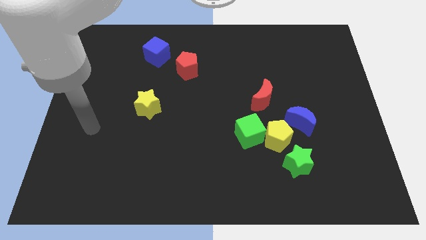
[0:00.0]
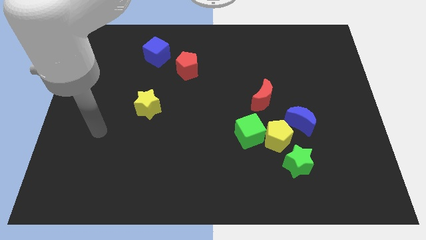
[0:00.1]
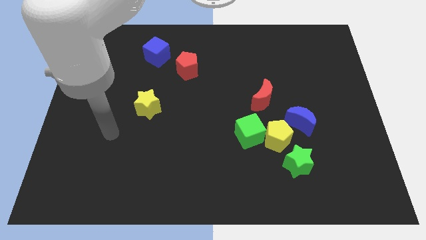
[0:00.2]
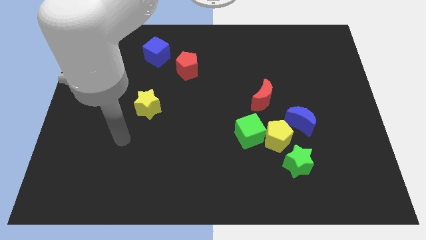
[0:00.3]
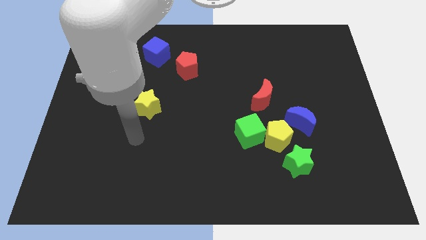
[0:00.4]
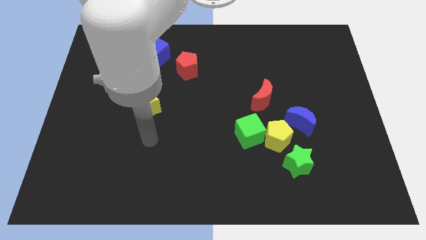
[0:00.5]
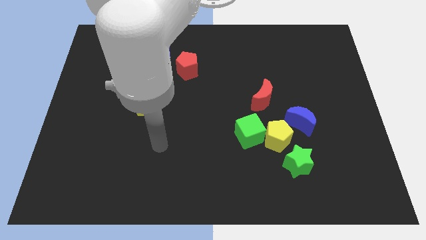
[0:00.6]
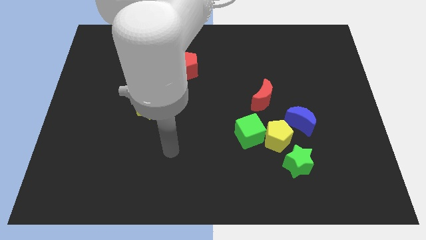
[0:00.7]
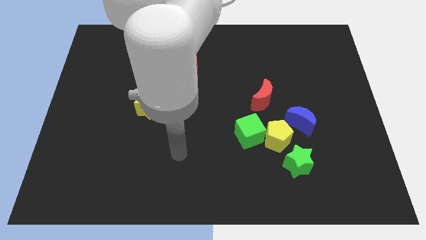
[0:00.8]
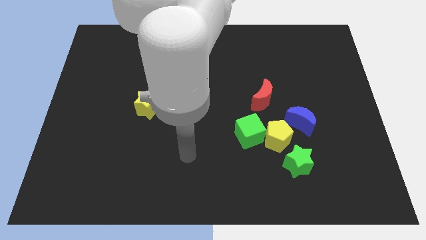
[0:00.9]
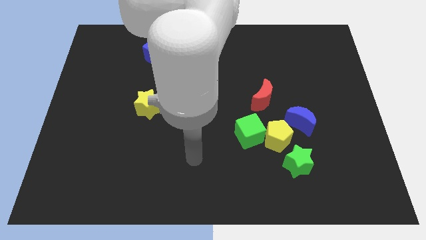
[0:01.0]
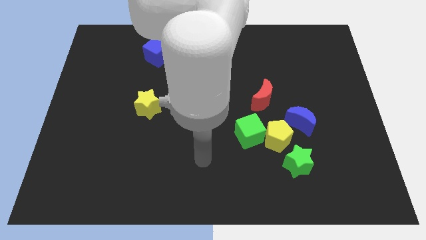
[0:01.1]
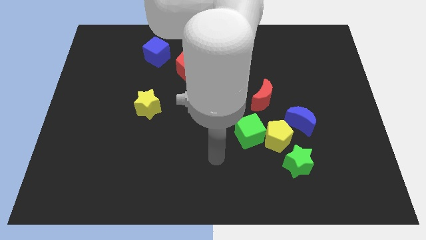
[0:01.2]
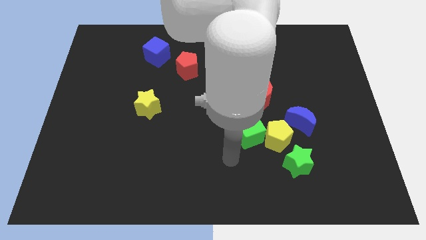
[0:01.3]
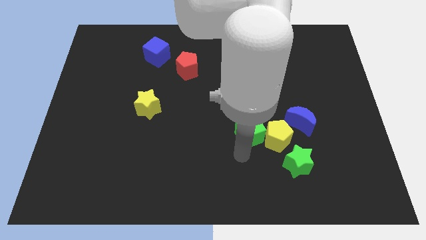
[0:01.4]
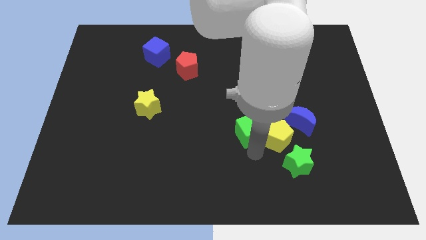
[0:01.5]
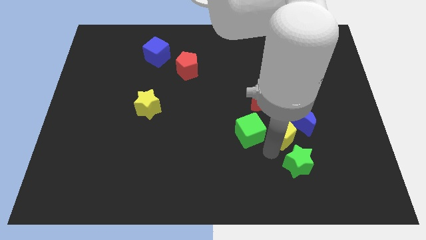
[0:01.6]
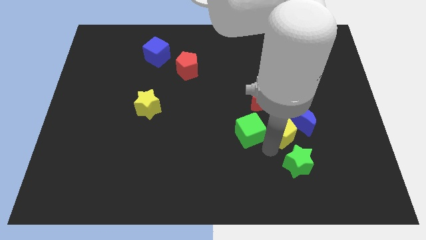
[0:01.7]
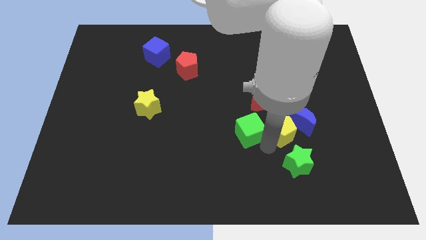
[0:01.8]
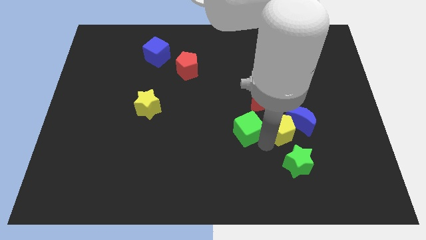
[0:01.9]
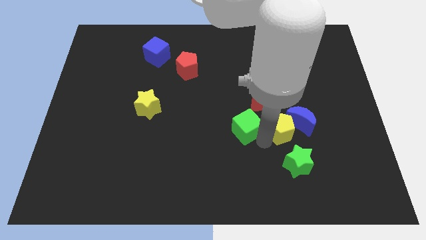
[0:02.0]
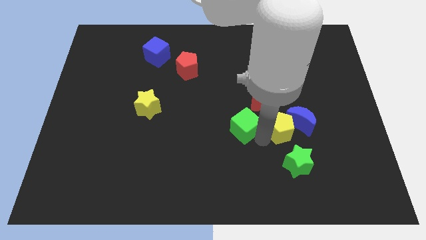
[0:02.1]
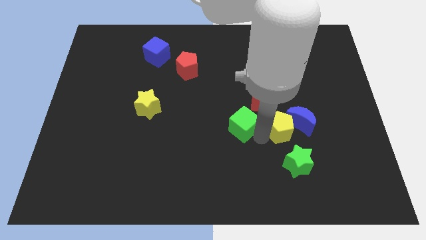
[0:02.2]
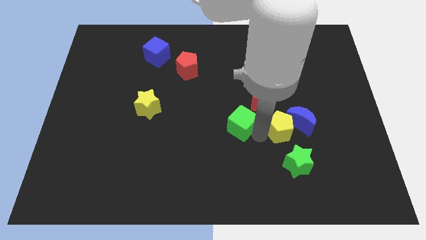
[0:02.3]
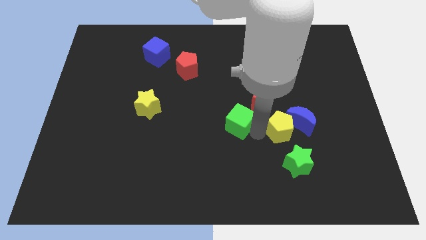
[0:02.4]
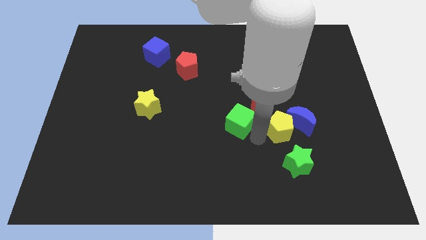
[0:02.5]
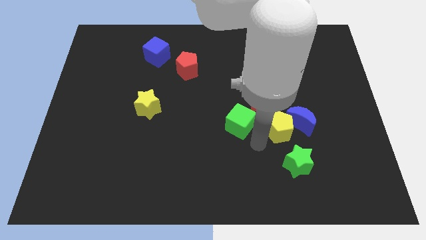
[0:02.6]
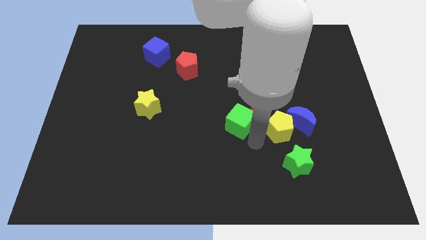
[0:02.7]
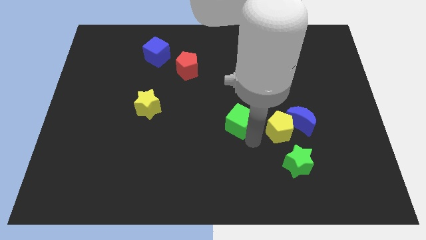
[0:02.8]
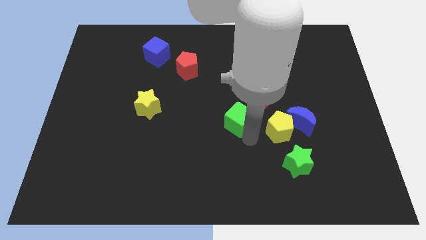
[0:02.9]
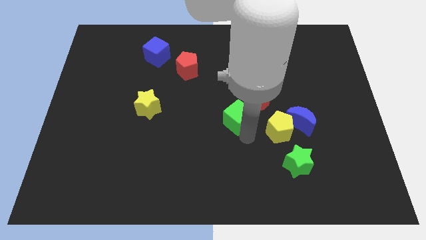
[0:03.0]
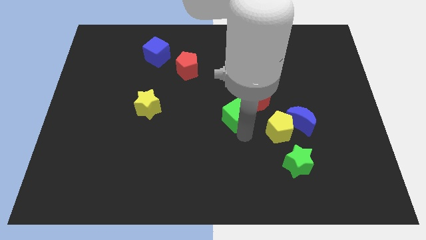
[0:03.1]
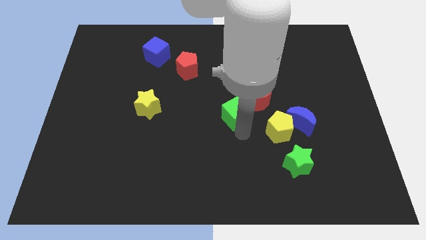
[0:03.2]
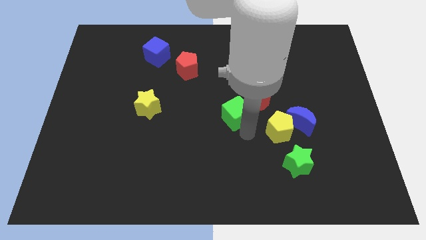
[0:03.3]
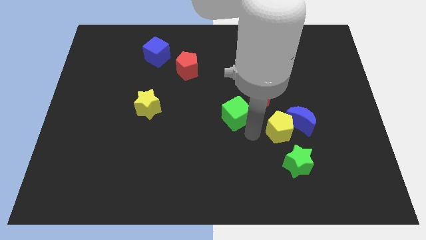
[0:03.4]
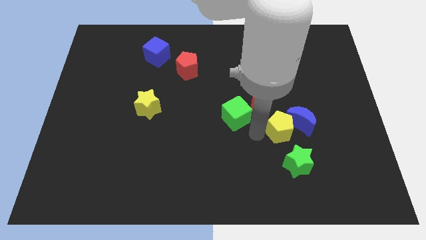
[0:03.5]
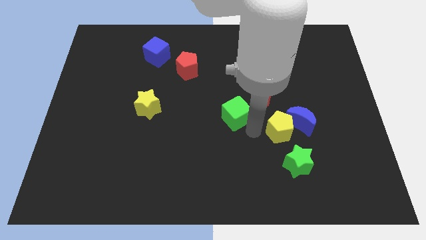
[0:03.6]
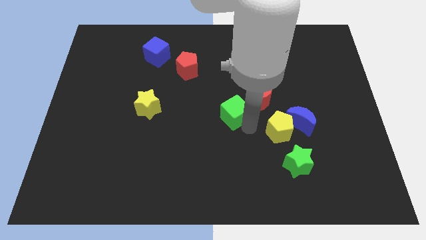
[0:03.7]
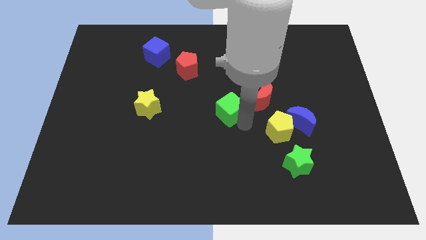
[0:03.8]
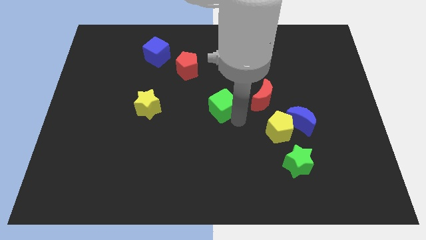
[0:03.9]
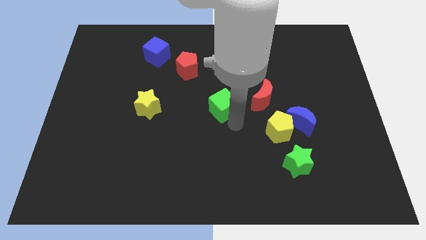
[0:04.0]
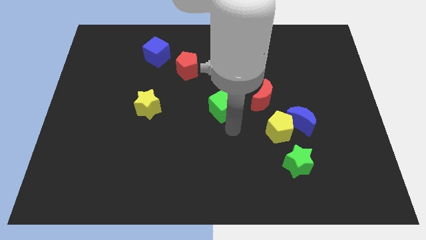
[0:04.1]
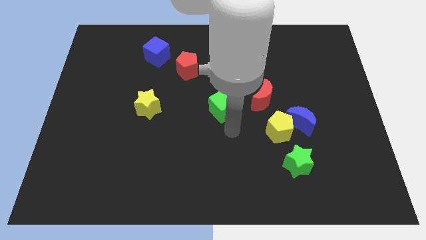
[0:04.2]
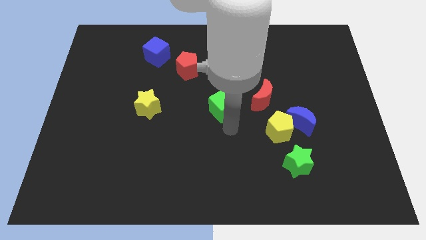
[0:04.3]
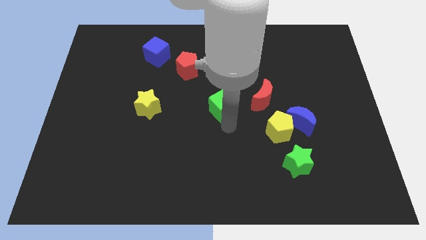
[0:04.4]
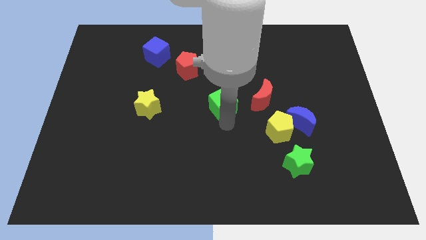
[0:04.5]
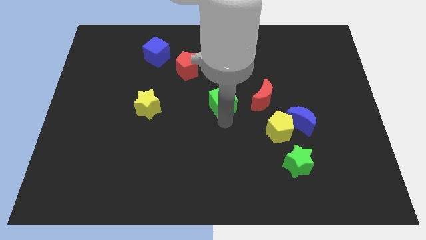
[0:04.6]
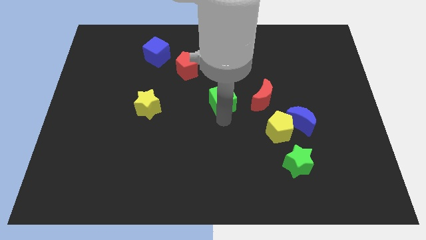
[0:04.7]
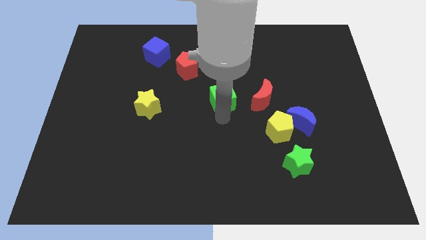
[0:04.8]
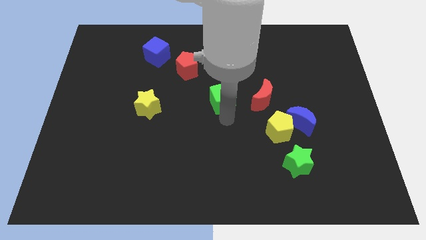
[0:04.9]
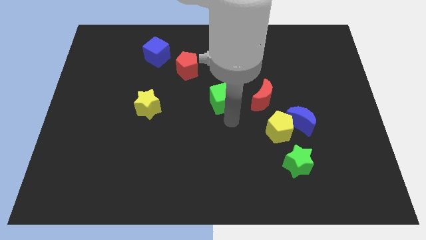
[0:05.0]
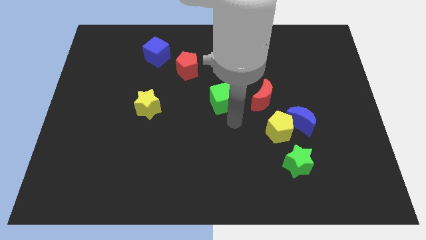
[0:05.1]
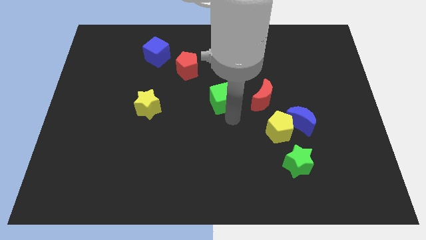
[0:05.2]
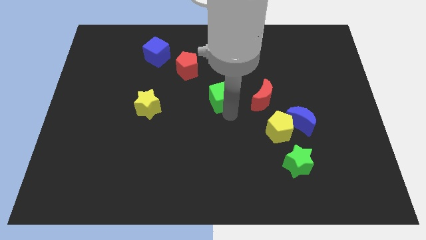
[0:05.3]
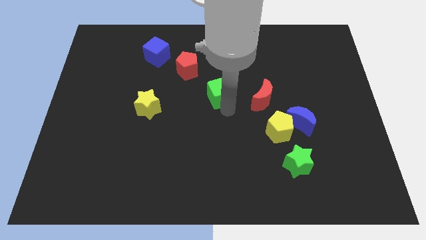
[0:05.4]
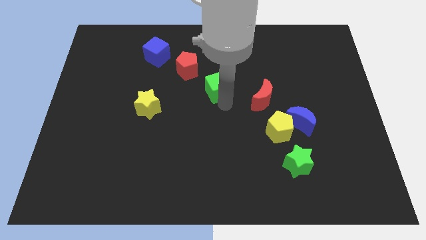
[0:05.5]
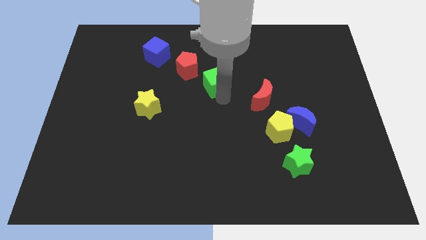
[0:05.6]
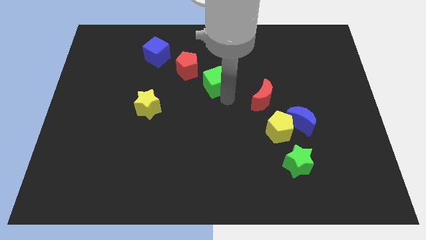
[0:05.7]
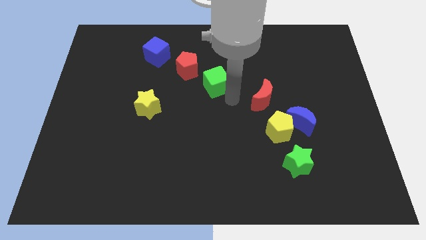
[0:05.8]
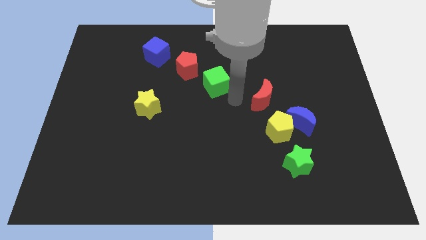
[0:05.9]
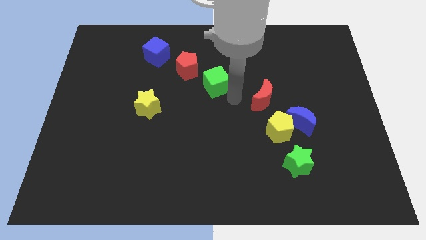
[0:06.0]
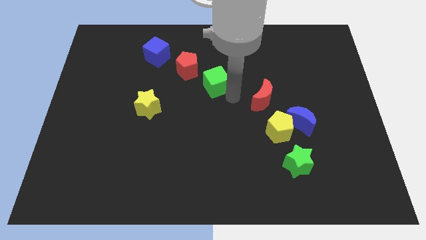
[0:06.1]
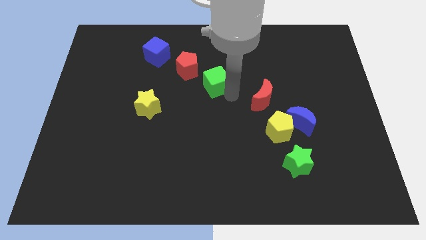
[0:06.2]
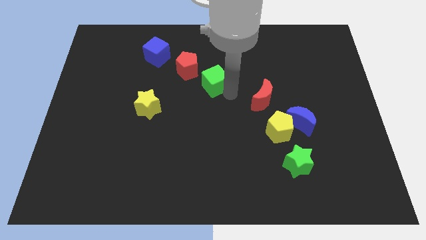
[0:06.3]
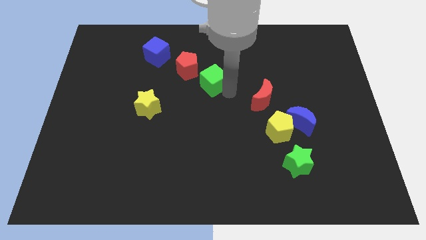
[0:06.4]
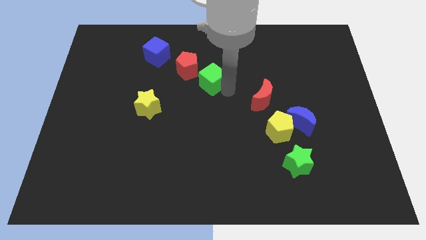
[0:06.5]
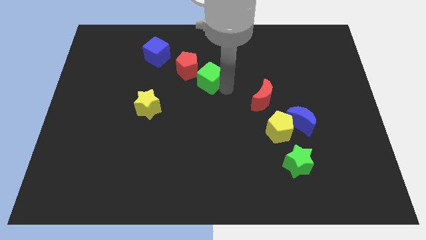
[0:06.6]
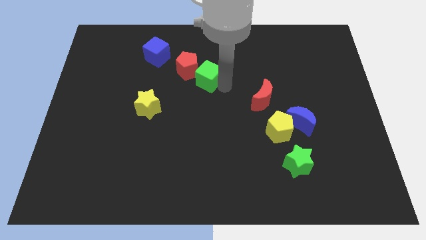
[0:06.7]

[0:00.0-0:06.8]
move the green cube to the red pentagon

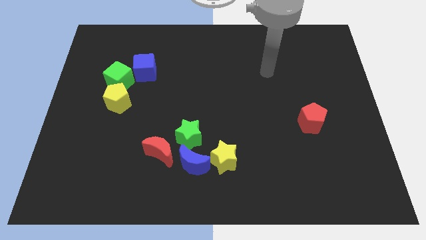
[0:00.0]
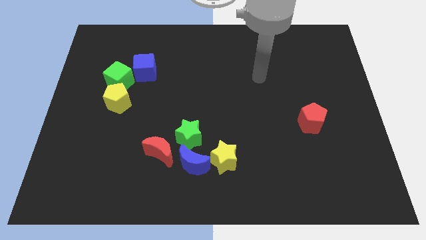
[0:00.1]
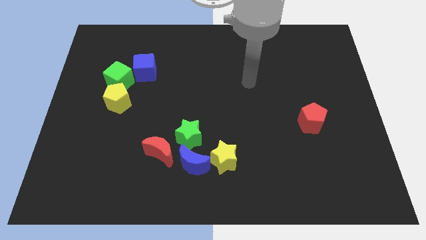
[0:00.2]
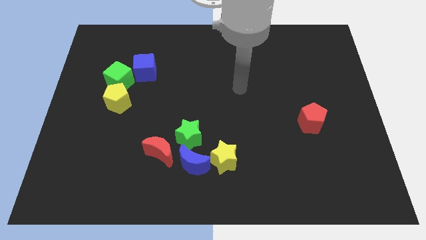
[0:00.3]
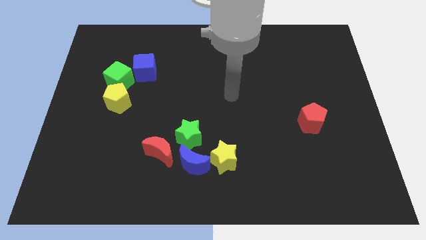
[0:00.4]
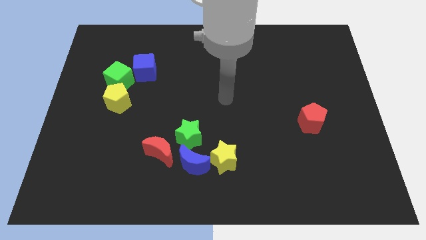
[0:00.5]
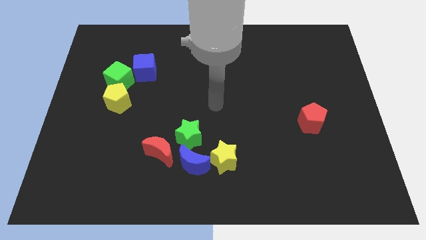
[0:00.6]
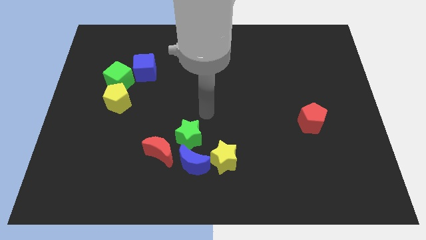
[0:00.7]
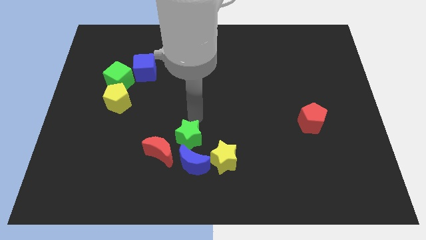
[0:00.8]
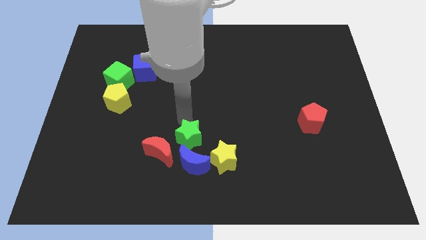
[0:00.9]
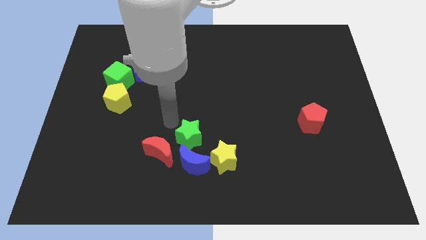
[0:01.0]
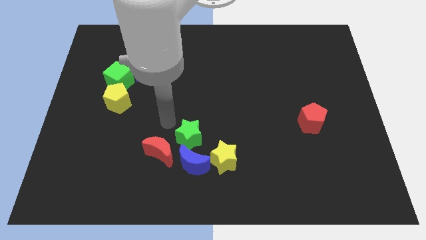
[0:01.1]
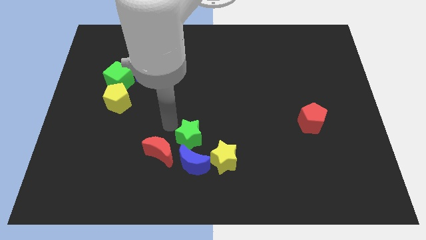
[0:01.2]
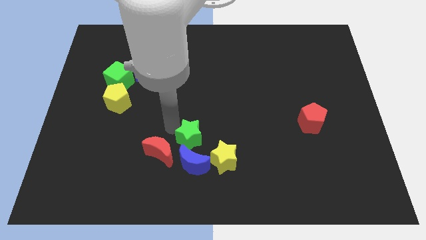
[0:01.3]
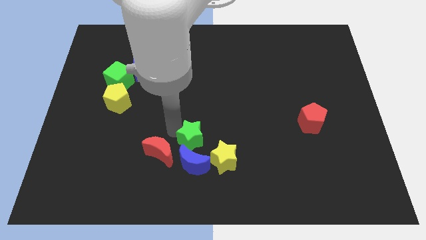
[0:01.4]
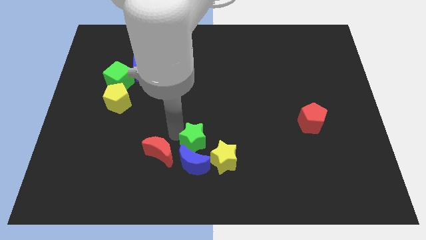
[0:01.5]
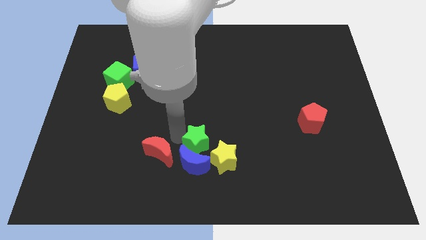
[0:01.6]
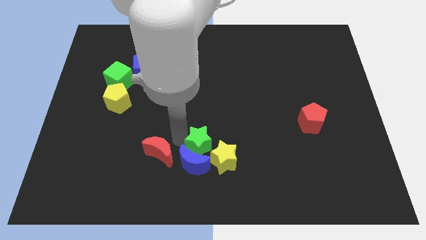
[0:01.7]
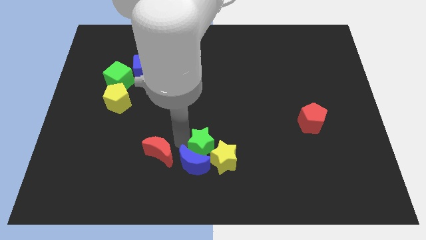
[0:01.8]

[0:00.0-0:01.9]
put the green star towards the yellow star
